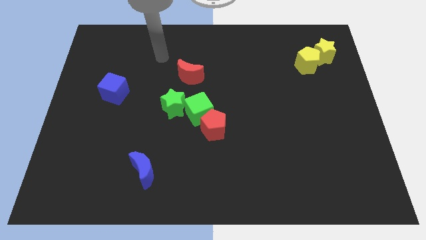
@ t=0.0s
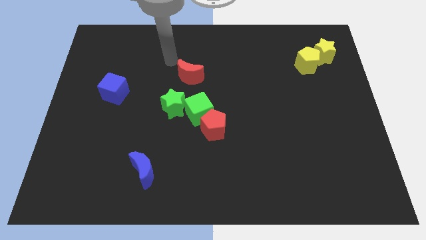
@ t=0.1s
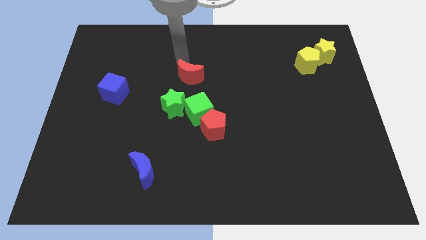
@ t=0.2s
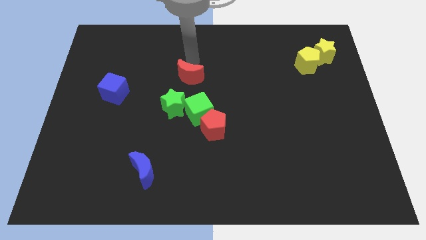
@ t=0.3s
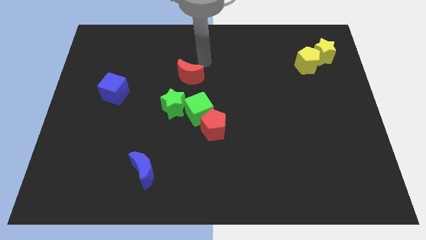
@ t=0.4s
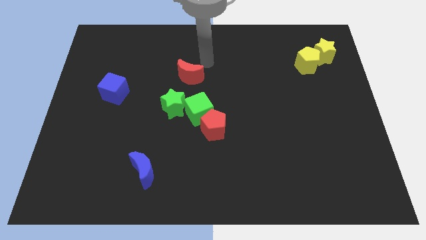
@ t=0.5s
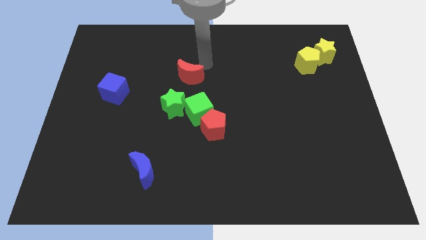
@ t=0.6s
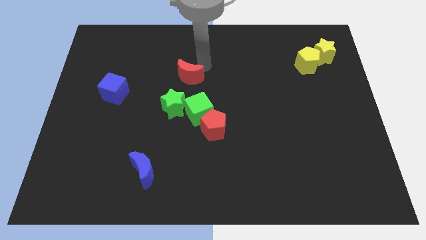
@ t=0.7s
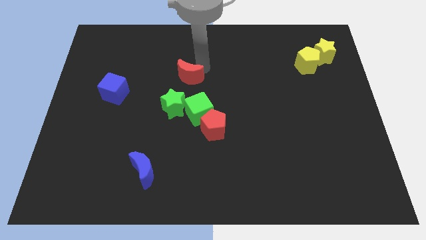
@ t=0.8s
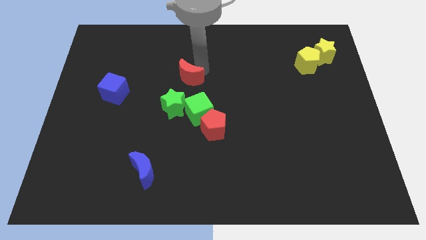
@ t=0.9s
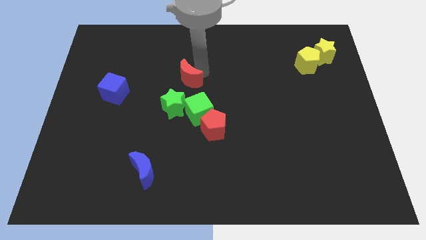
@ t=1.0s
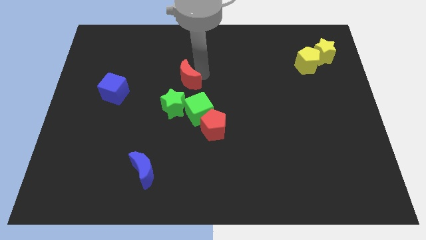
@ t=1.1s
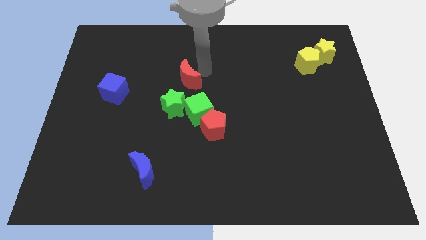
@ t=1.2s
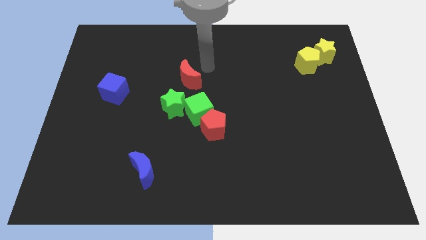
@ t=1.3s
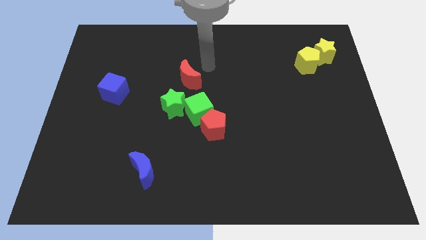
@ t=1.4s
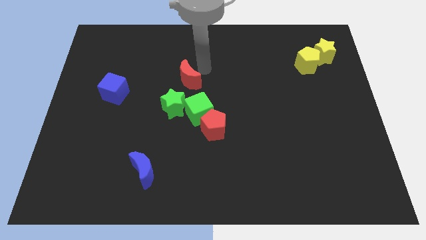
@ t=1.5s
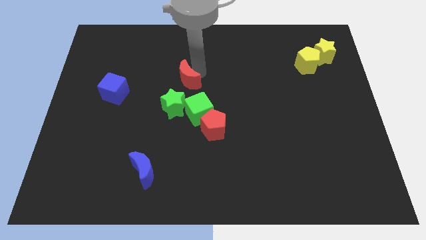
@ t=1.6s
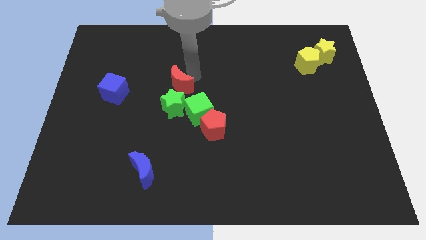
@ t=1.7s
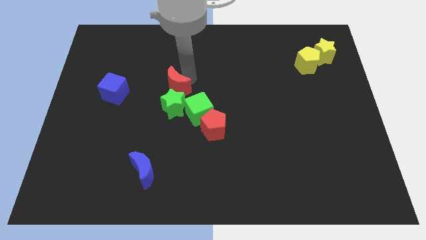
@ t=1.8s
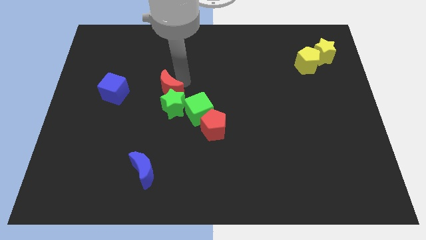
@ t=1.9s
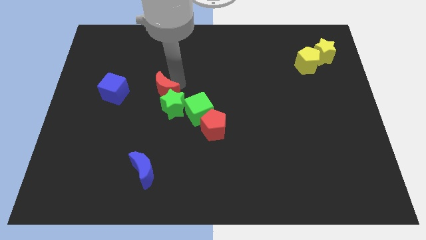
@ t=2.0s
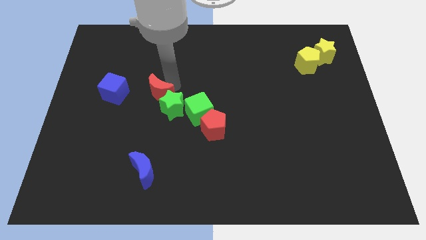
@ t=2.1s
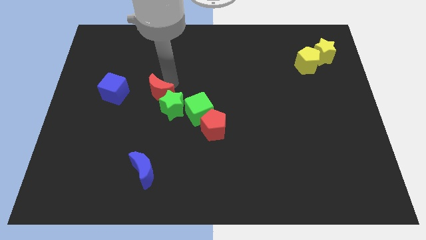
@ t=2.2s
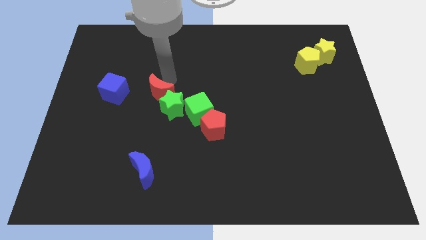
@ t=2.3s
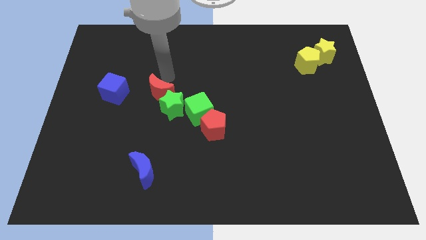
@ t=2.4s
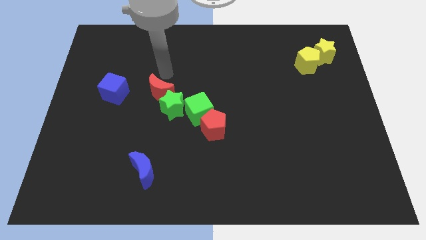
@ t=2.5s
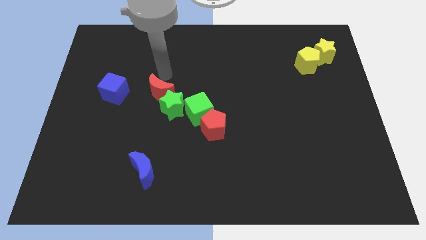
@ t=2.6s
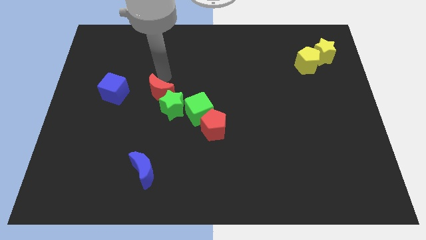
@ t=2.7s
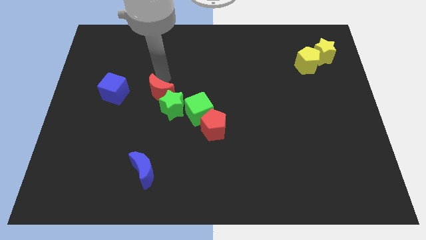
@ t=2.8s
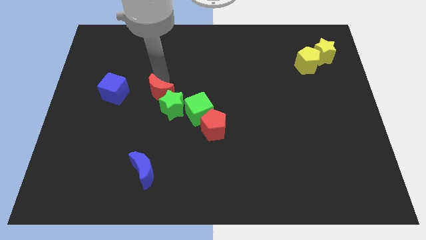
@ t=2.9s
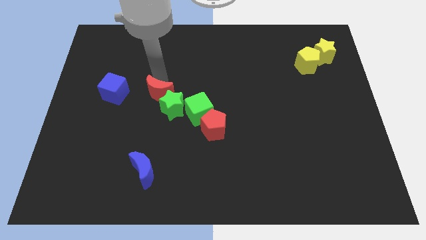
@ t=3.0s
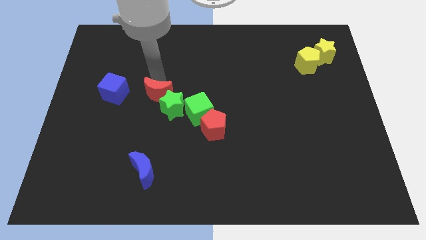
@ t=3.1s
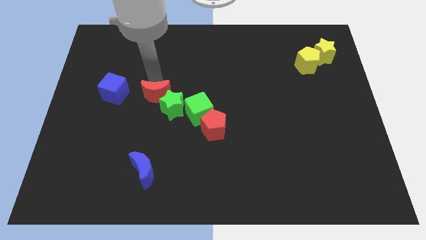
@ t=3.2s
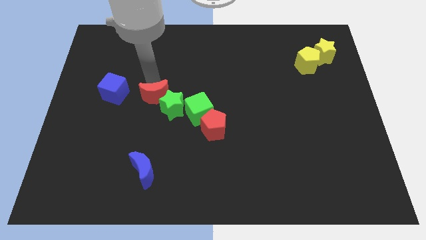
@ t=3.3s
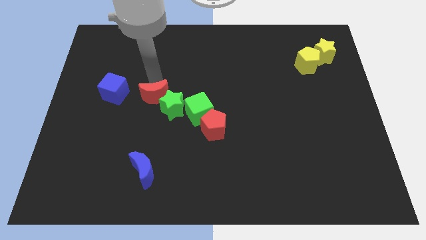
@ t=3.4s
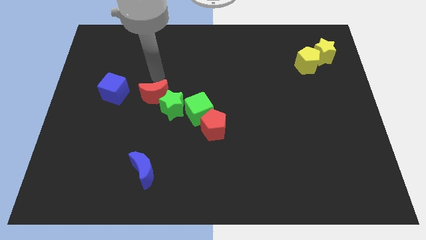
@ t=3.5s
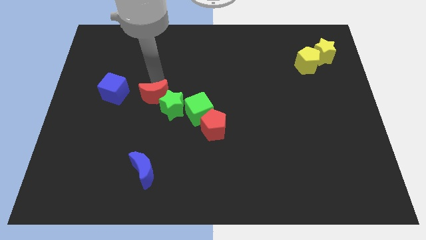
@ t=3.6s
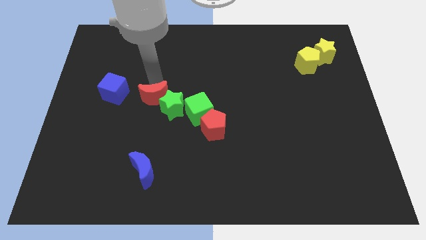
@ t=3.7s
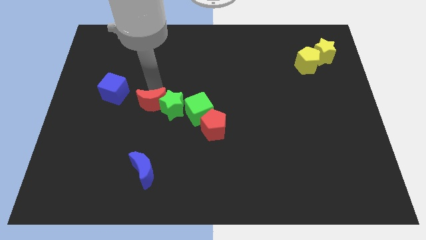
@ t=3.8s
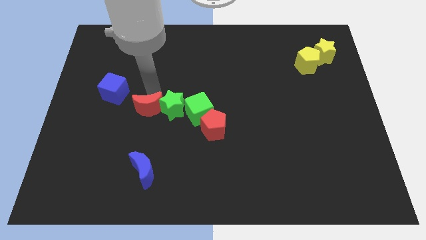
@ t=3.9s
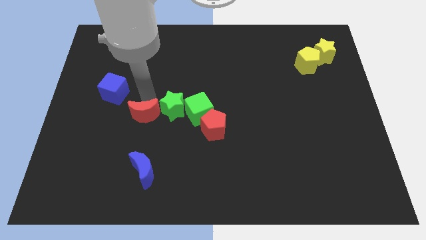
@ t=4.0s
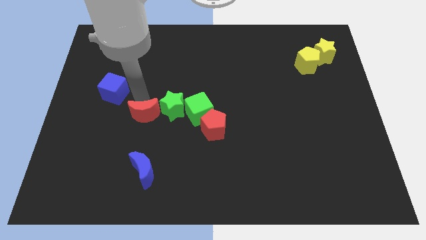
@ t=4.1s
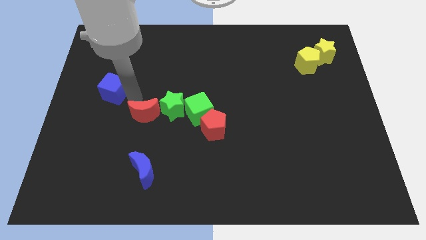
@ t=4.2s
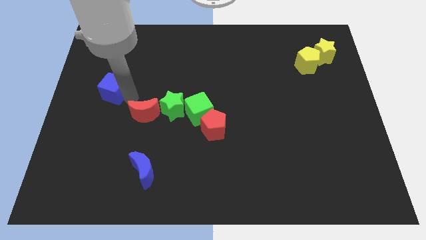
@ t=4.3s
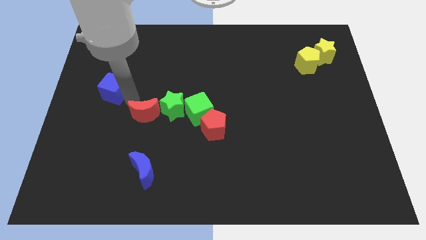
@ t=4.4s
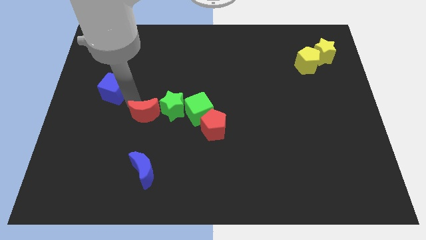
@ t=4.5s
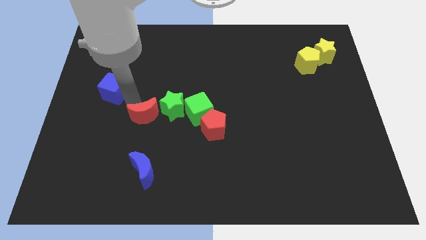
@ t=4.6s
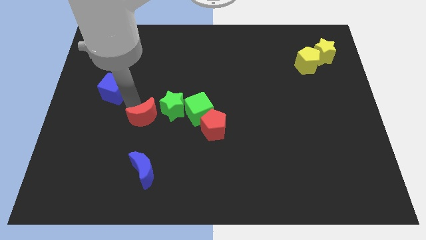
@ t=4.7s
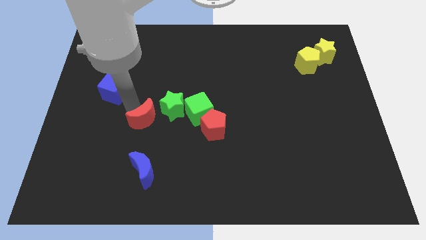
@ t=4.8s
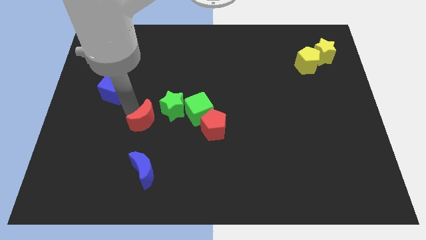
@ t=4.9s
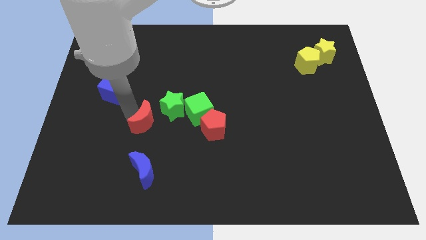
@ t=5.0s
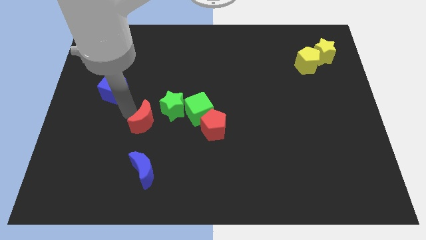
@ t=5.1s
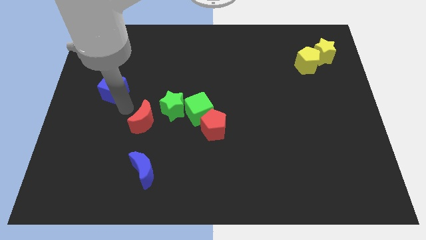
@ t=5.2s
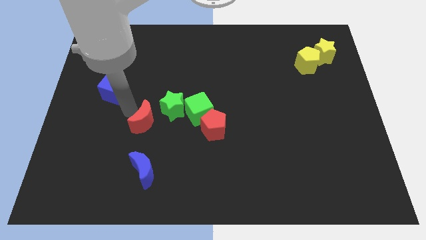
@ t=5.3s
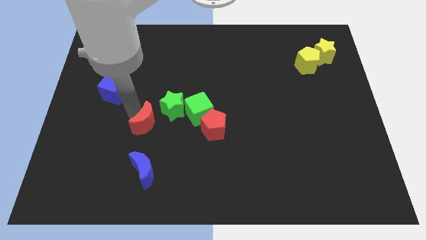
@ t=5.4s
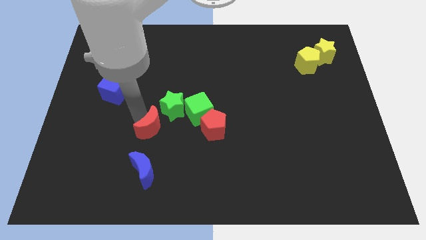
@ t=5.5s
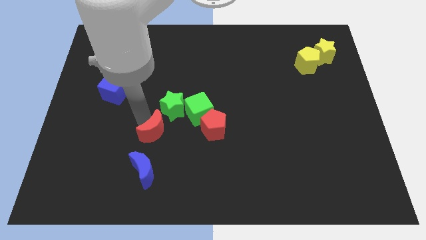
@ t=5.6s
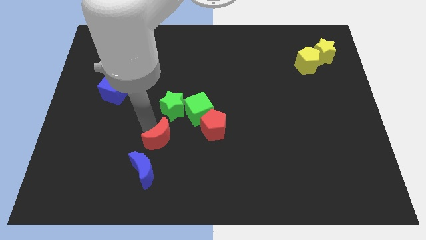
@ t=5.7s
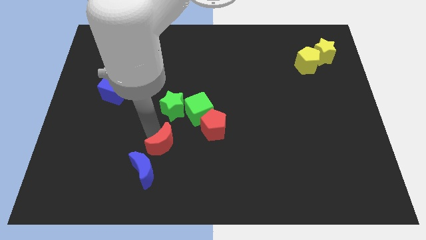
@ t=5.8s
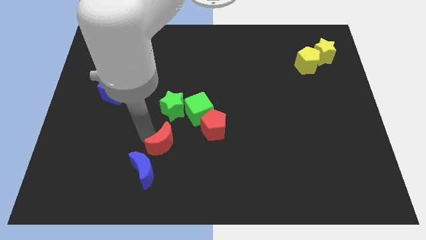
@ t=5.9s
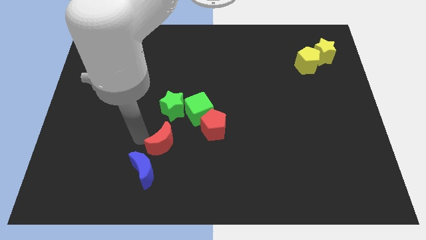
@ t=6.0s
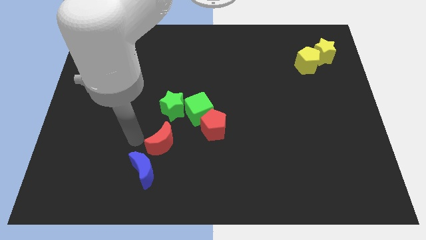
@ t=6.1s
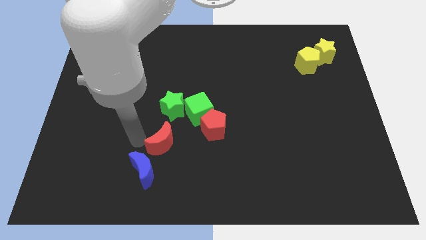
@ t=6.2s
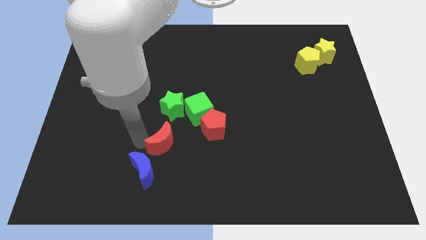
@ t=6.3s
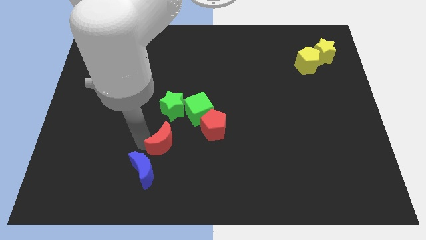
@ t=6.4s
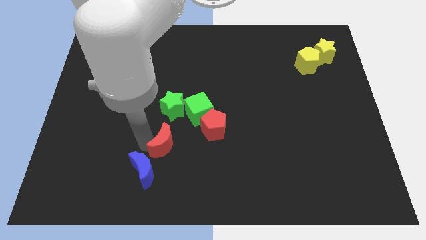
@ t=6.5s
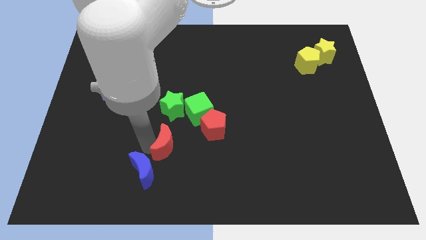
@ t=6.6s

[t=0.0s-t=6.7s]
put the red moon to the bottom left side of the red pentagon

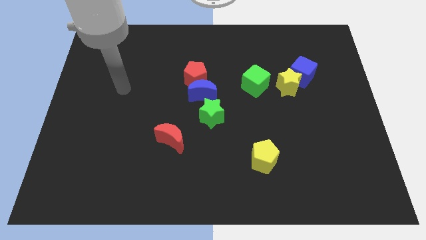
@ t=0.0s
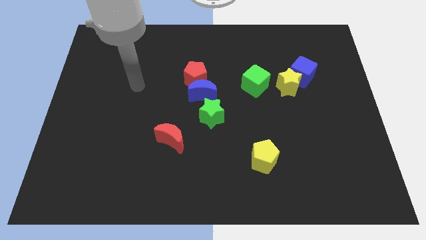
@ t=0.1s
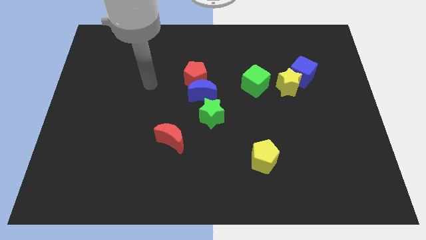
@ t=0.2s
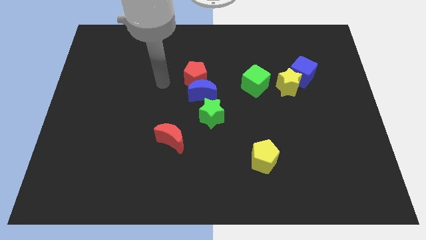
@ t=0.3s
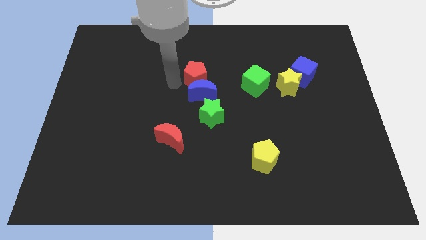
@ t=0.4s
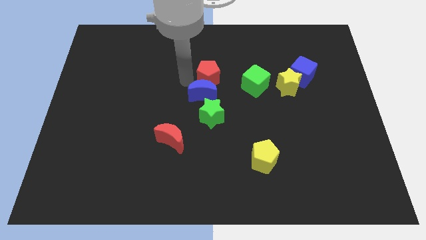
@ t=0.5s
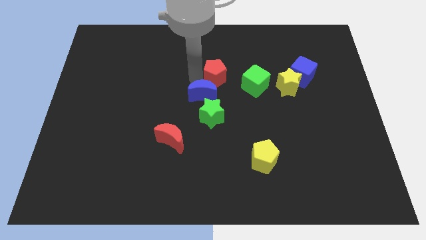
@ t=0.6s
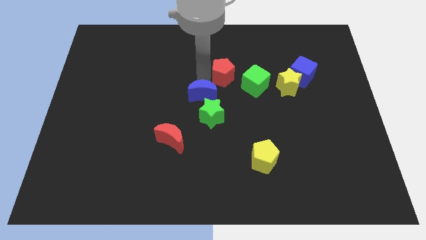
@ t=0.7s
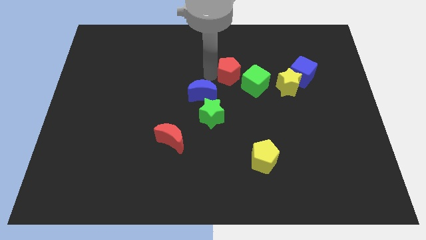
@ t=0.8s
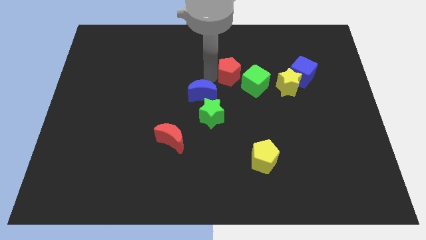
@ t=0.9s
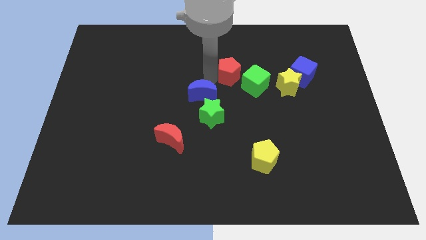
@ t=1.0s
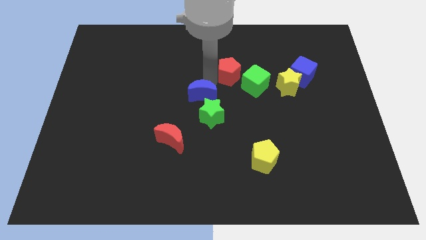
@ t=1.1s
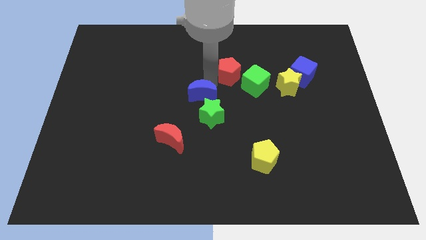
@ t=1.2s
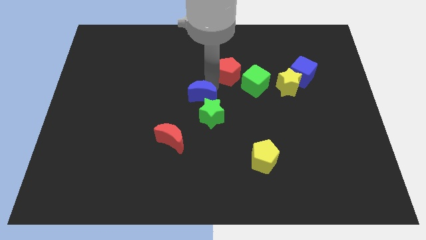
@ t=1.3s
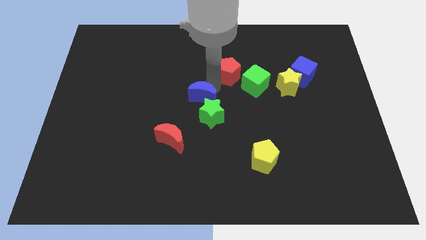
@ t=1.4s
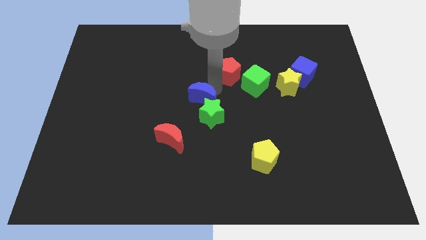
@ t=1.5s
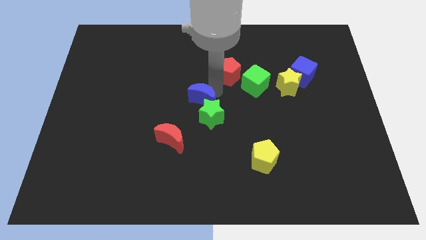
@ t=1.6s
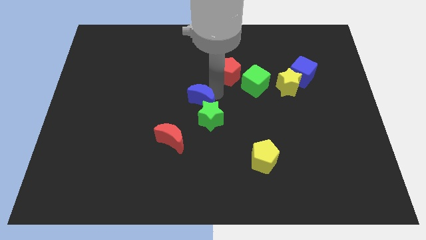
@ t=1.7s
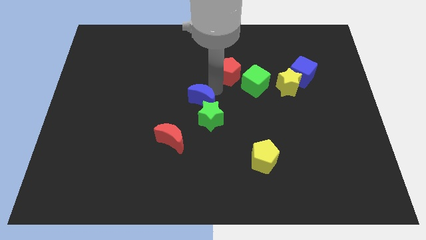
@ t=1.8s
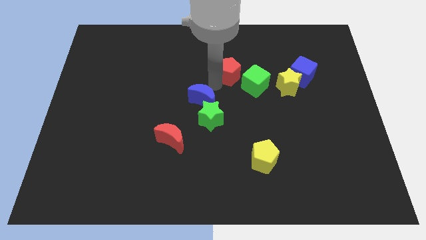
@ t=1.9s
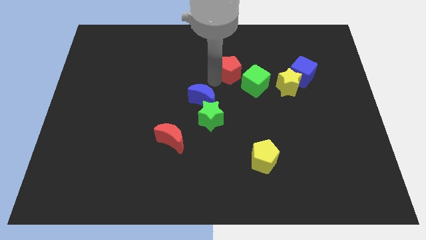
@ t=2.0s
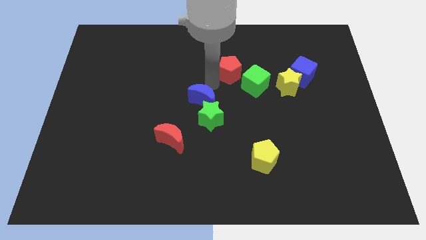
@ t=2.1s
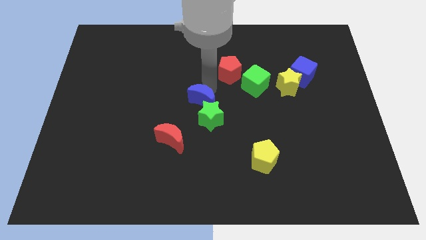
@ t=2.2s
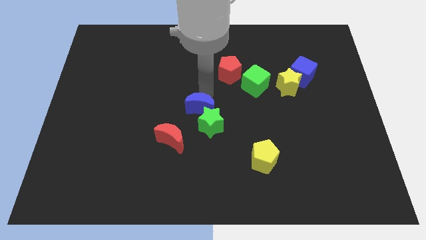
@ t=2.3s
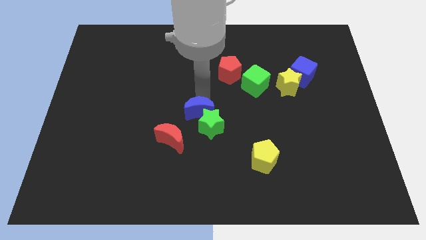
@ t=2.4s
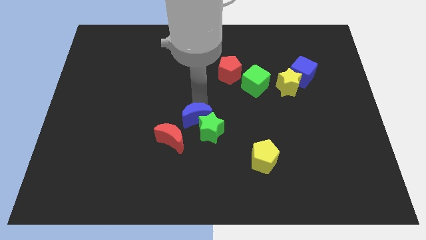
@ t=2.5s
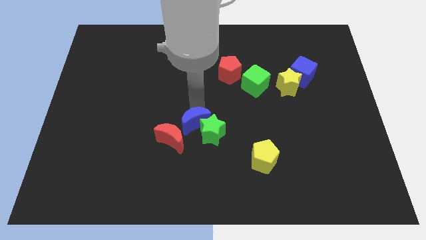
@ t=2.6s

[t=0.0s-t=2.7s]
push the blue moon to the right of the red moon
